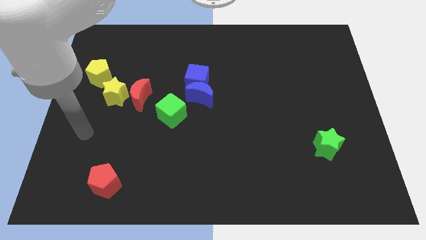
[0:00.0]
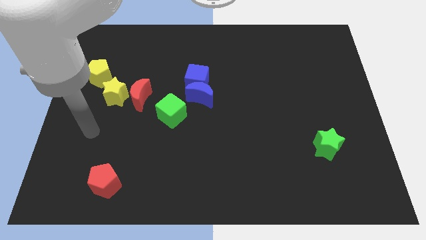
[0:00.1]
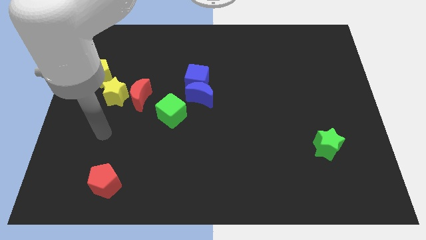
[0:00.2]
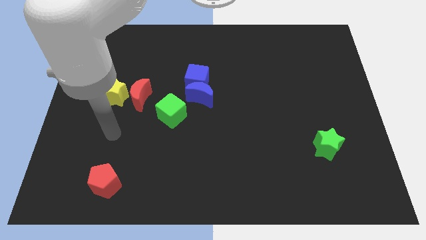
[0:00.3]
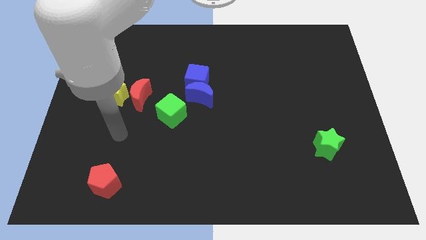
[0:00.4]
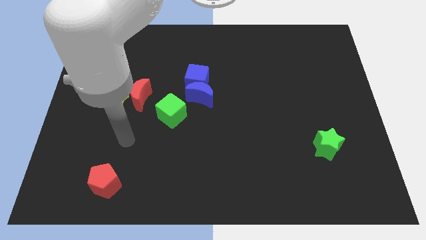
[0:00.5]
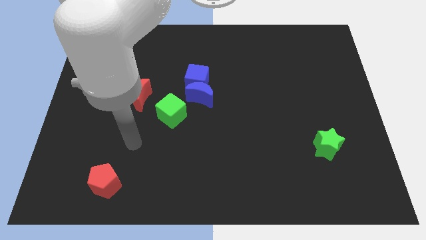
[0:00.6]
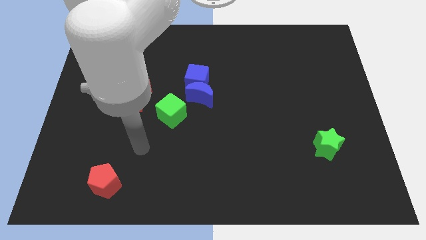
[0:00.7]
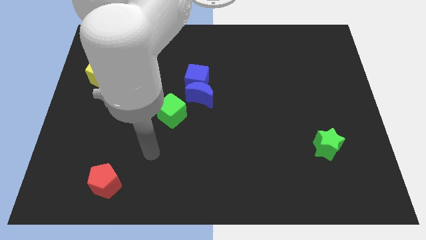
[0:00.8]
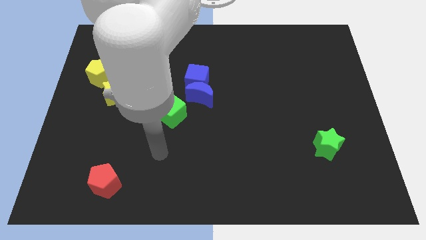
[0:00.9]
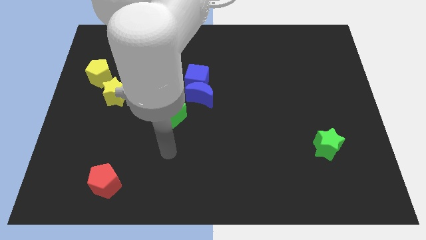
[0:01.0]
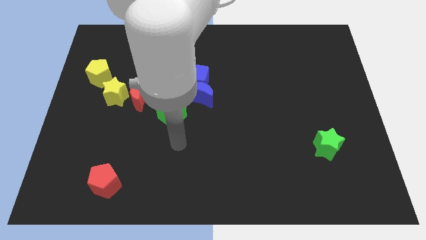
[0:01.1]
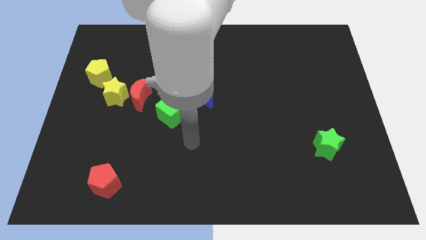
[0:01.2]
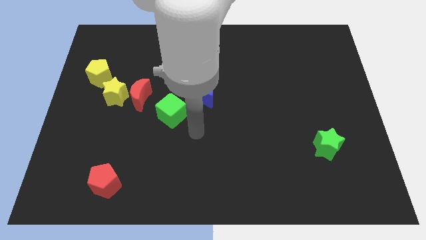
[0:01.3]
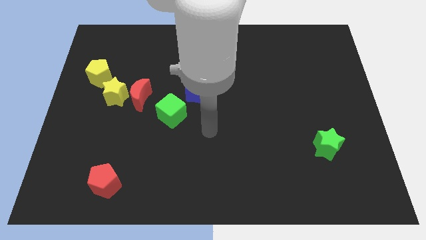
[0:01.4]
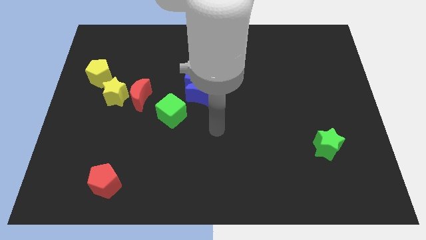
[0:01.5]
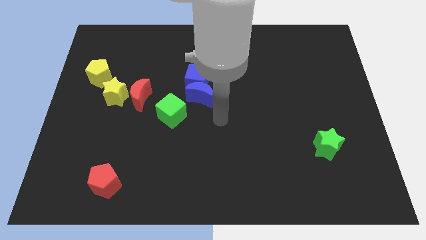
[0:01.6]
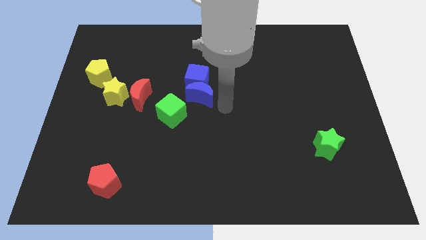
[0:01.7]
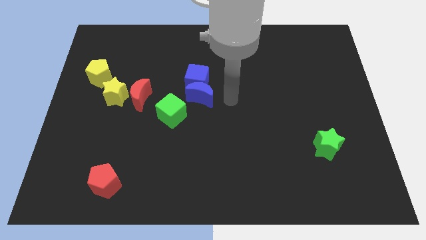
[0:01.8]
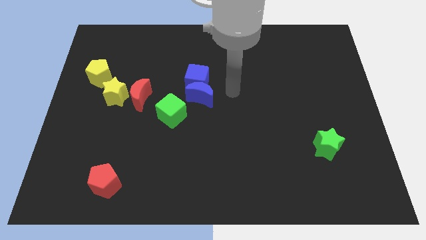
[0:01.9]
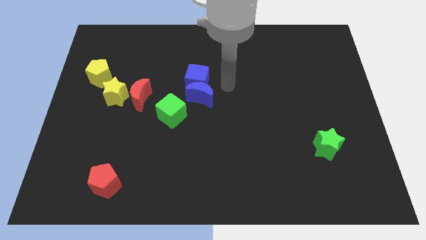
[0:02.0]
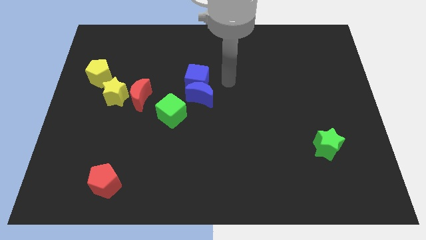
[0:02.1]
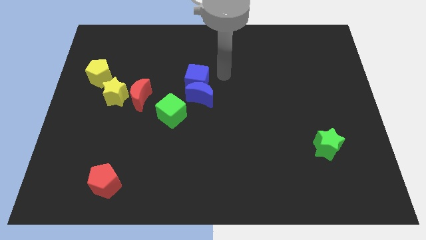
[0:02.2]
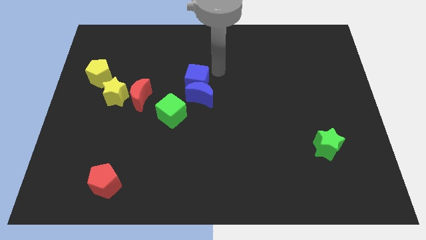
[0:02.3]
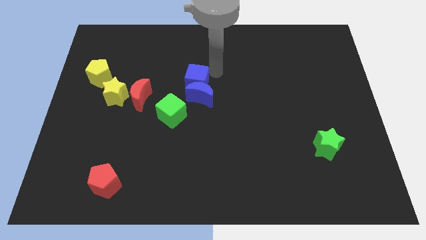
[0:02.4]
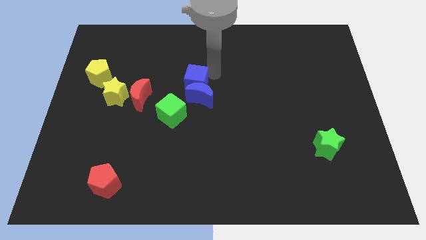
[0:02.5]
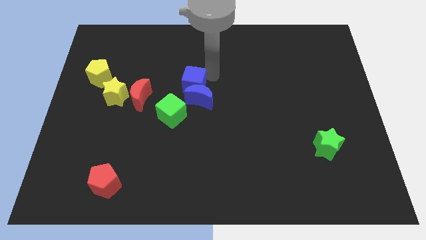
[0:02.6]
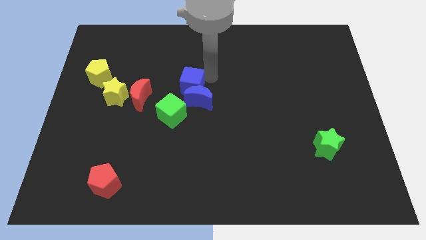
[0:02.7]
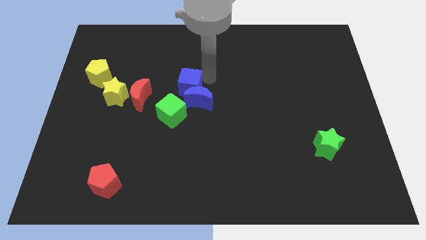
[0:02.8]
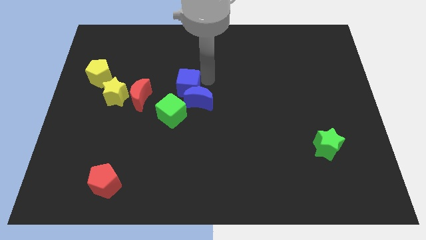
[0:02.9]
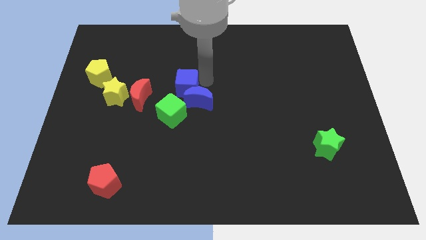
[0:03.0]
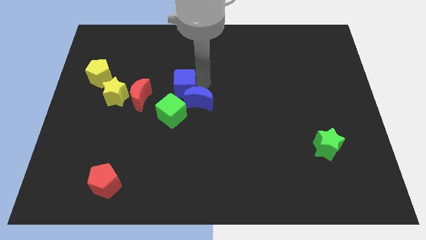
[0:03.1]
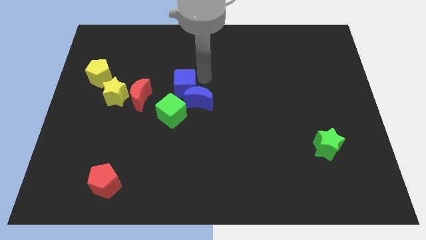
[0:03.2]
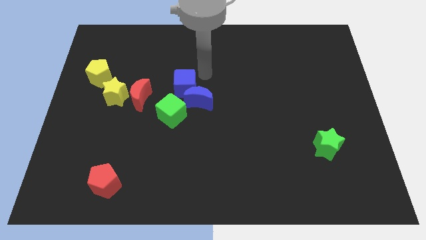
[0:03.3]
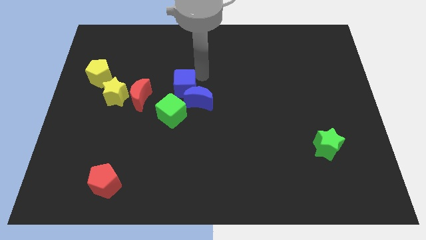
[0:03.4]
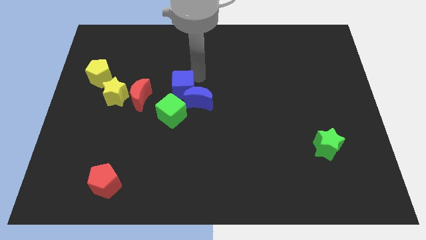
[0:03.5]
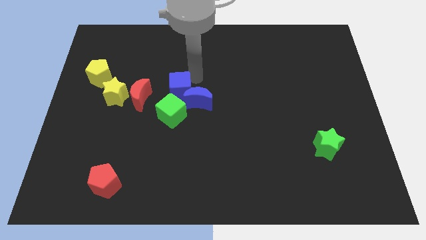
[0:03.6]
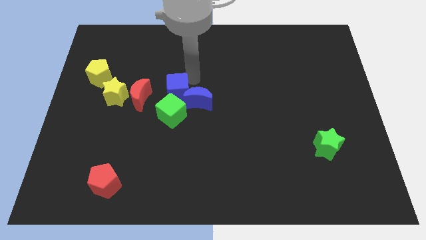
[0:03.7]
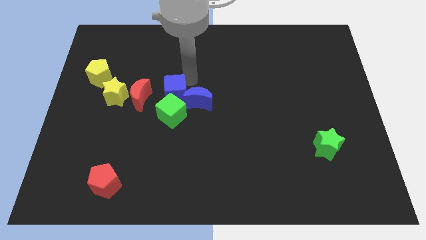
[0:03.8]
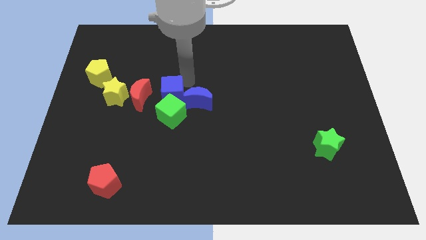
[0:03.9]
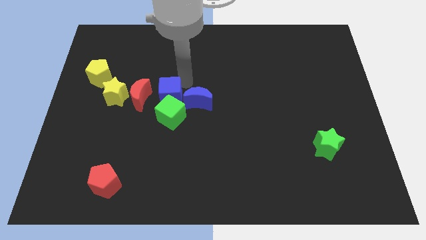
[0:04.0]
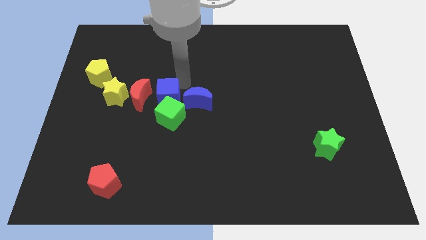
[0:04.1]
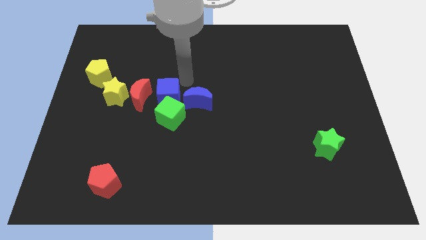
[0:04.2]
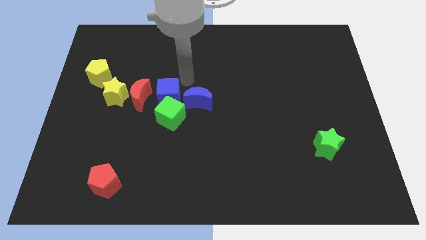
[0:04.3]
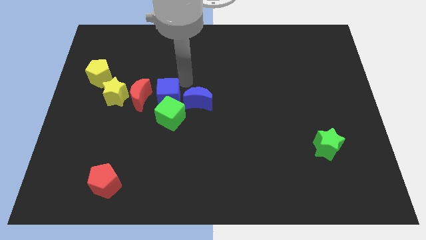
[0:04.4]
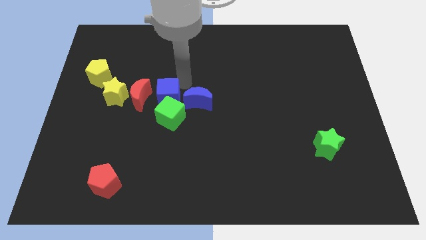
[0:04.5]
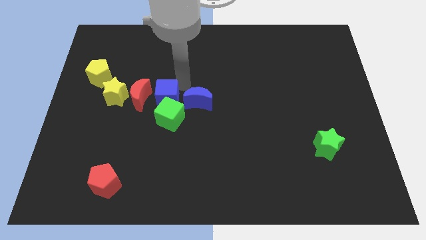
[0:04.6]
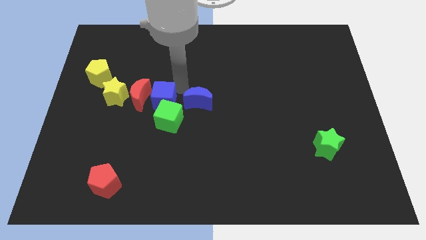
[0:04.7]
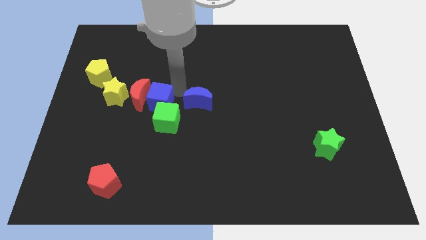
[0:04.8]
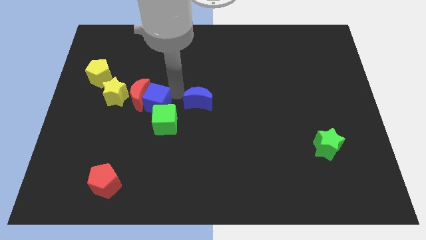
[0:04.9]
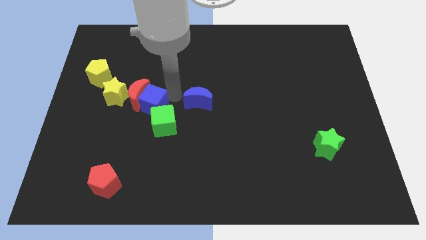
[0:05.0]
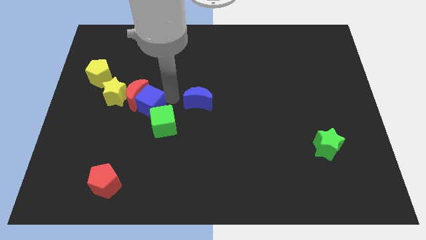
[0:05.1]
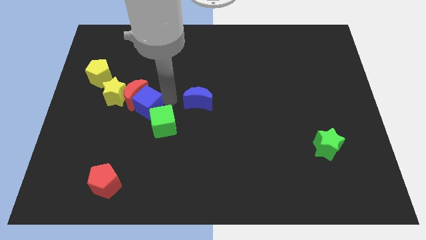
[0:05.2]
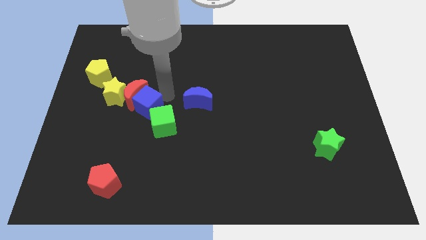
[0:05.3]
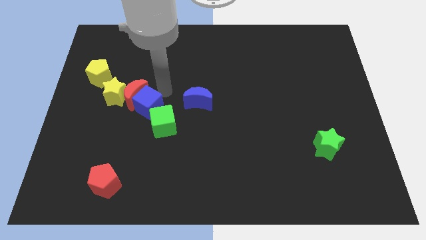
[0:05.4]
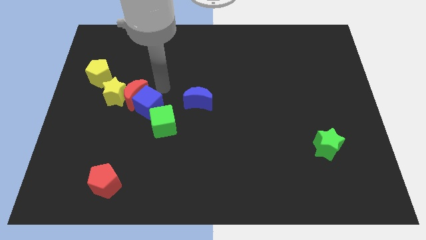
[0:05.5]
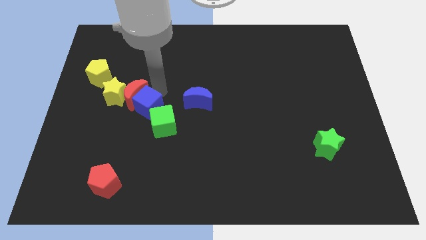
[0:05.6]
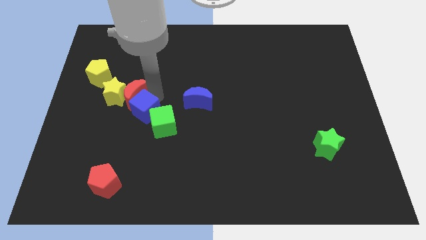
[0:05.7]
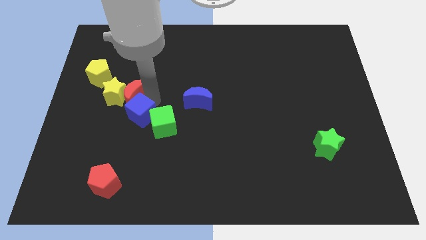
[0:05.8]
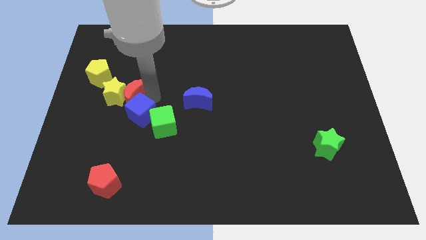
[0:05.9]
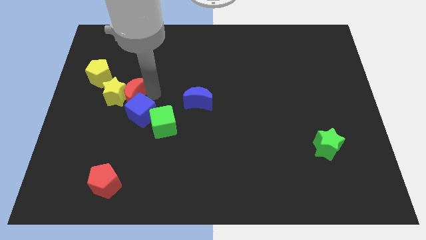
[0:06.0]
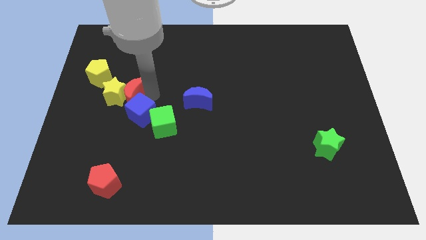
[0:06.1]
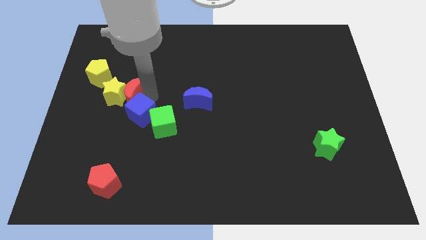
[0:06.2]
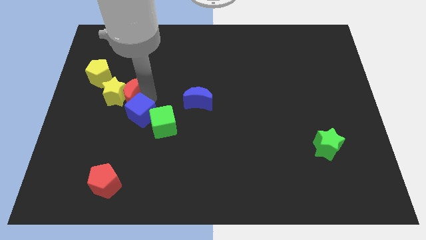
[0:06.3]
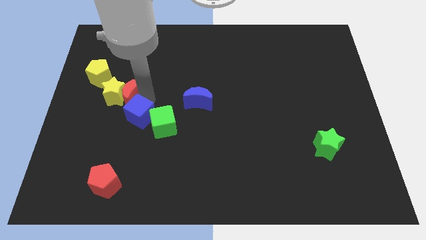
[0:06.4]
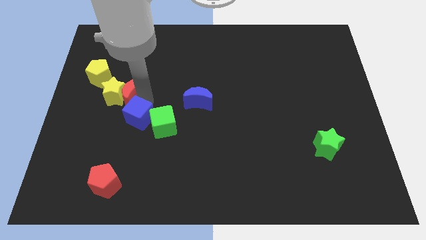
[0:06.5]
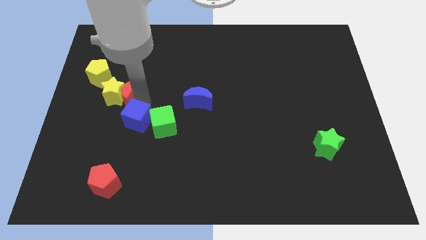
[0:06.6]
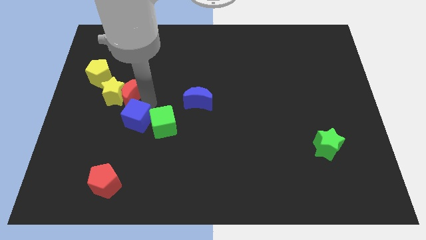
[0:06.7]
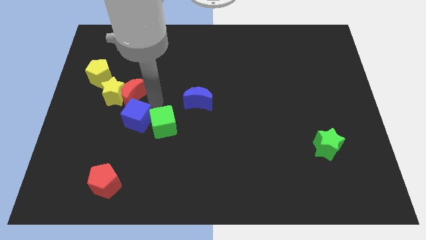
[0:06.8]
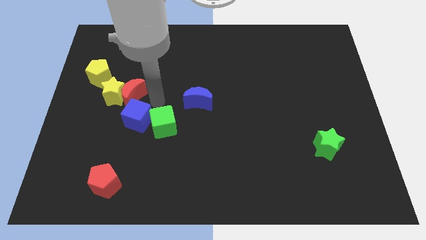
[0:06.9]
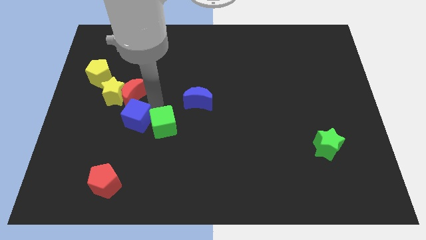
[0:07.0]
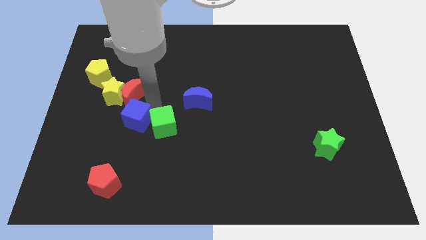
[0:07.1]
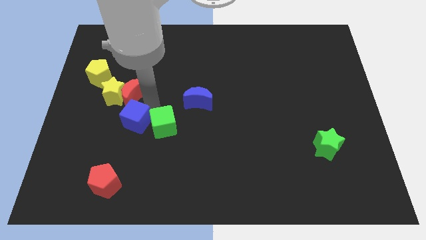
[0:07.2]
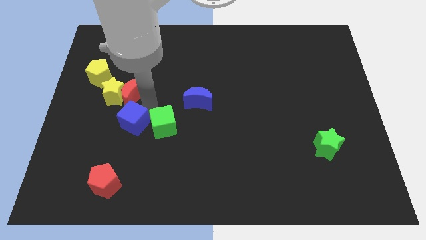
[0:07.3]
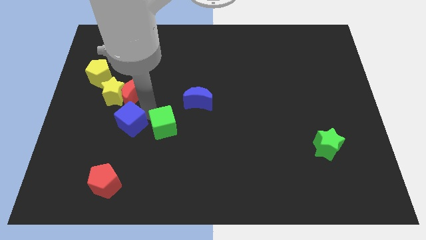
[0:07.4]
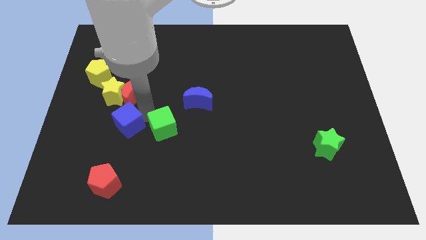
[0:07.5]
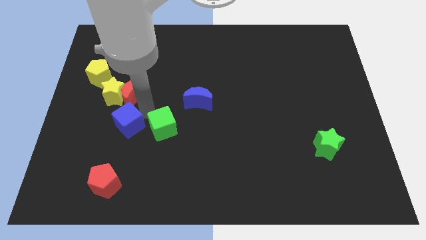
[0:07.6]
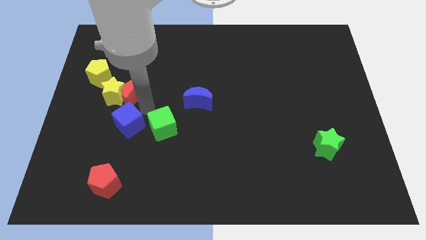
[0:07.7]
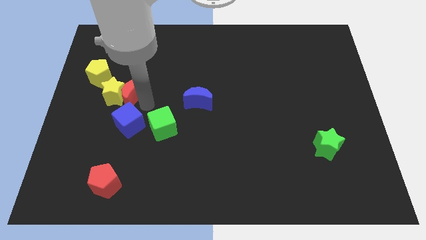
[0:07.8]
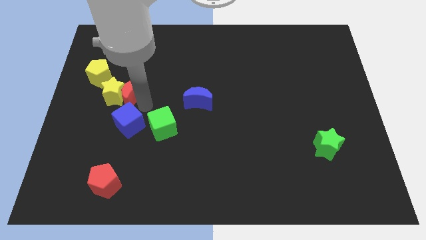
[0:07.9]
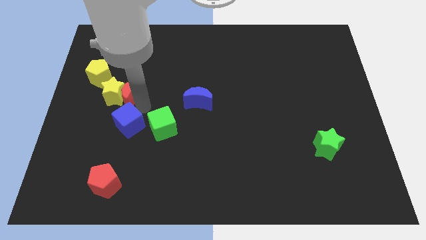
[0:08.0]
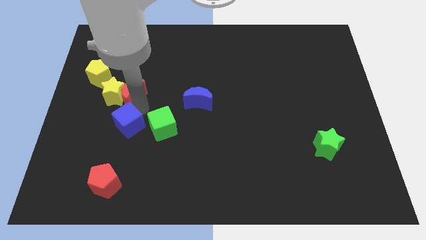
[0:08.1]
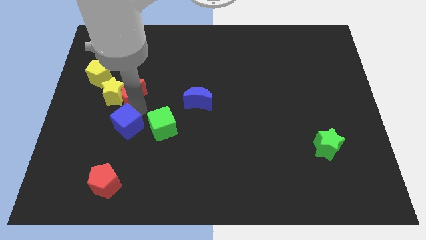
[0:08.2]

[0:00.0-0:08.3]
slide the blue cube down and then left
